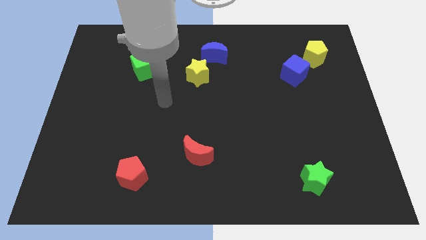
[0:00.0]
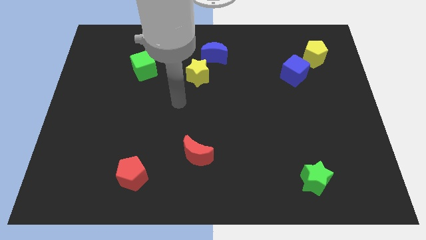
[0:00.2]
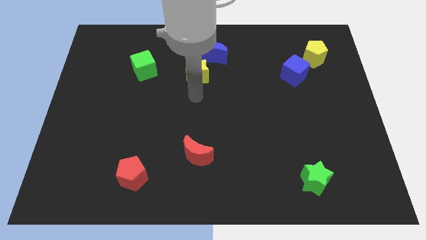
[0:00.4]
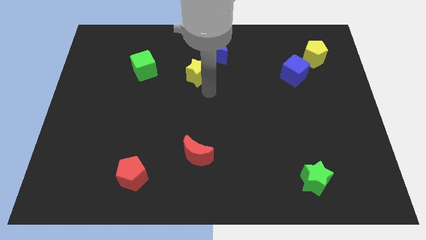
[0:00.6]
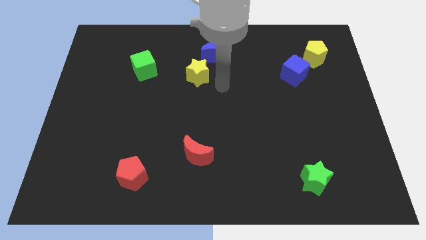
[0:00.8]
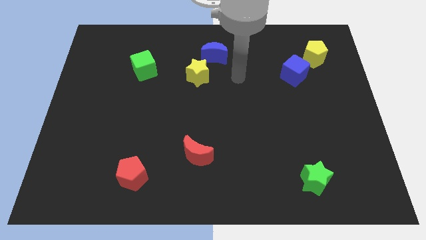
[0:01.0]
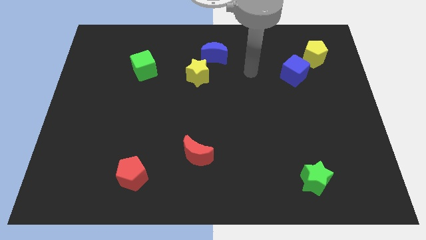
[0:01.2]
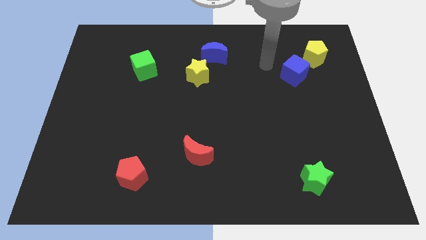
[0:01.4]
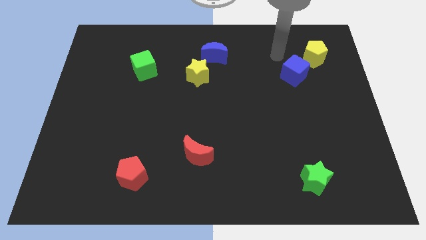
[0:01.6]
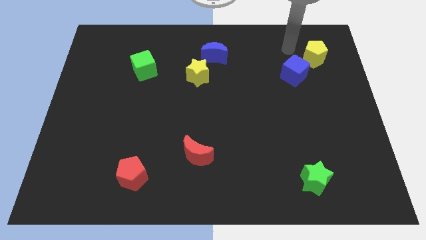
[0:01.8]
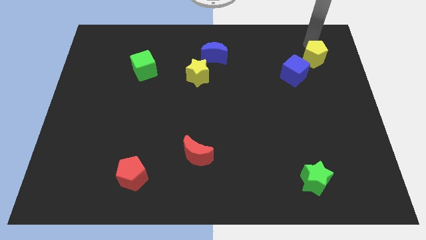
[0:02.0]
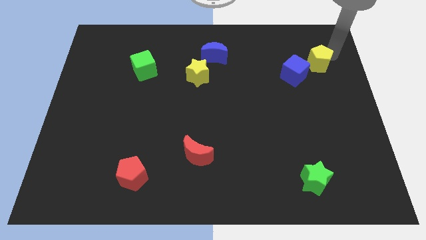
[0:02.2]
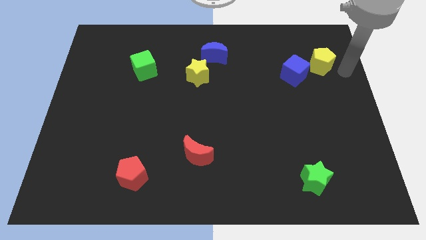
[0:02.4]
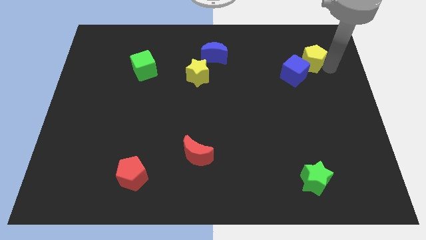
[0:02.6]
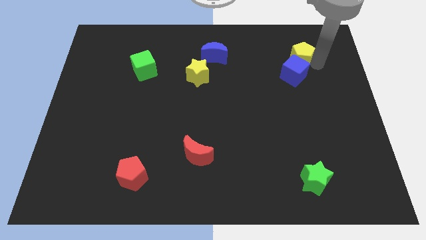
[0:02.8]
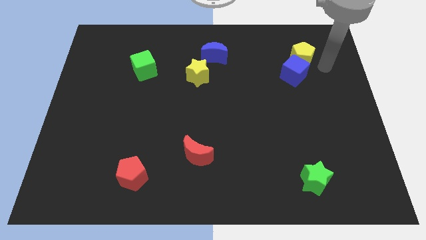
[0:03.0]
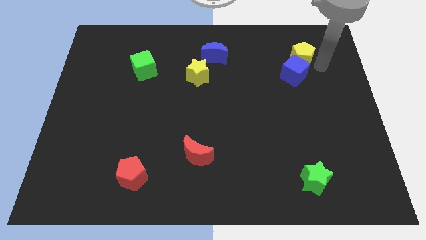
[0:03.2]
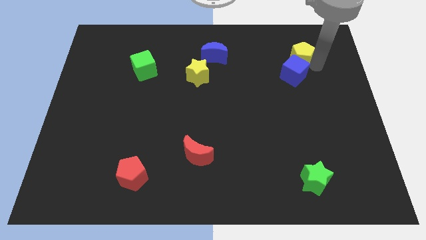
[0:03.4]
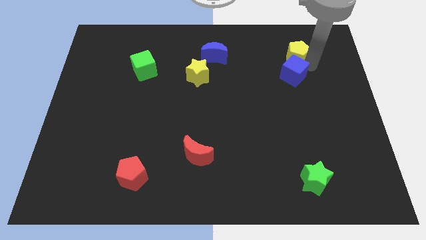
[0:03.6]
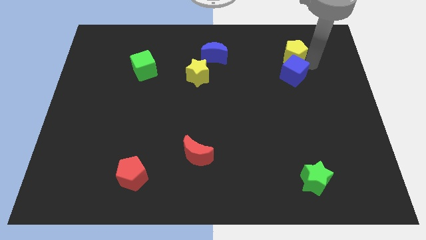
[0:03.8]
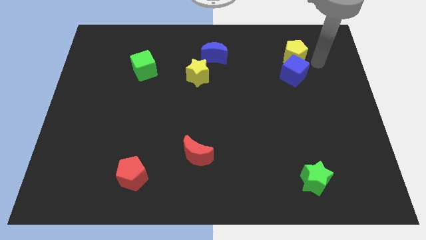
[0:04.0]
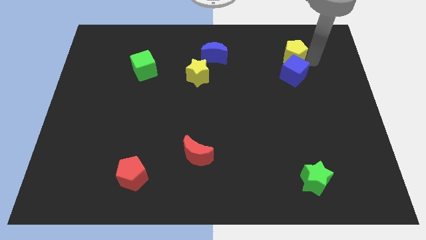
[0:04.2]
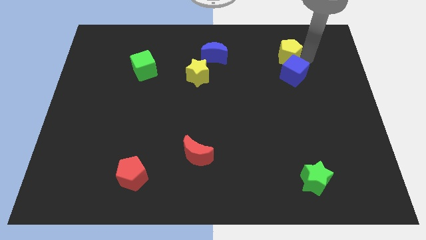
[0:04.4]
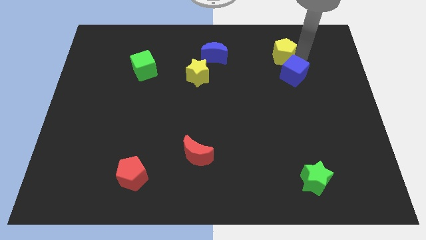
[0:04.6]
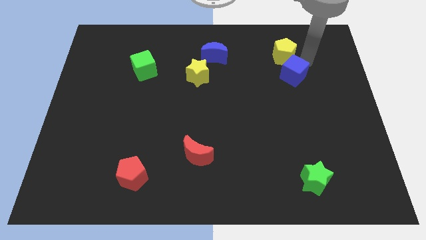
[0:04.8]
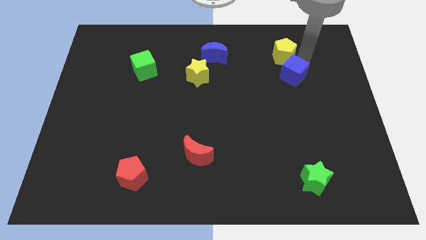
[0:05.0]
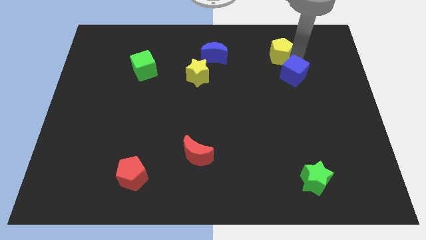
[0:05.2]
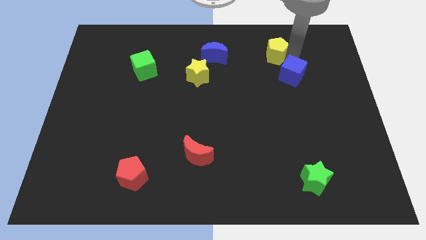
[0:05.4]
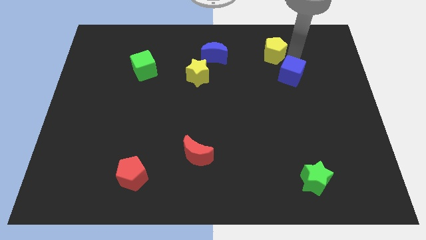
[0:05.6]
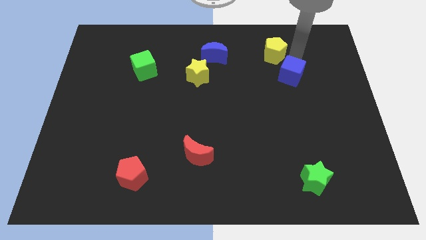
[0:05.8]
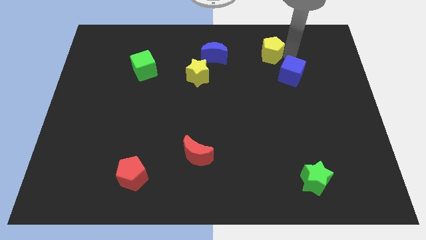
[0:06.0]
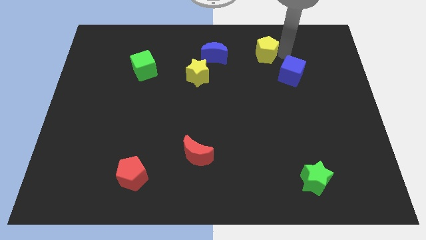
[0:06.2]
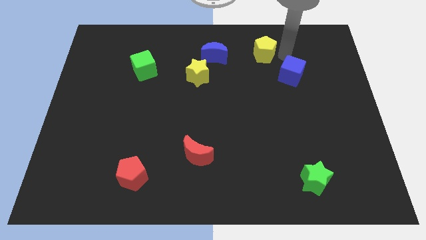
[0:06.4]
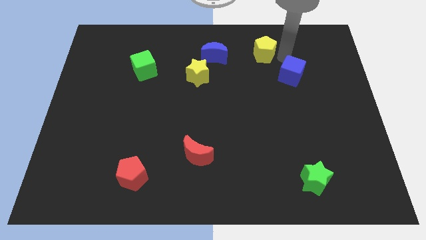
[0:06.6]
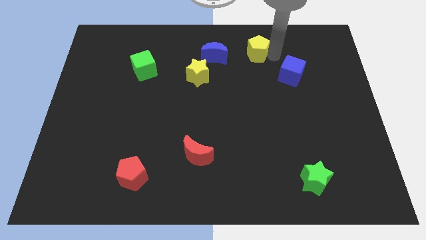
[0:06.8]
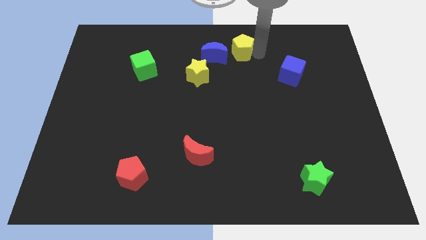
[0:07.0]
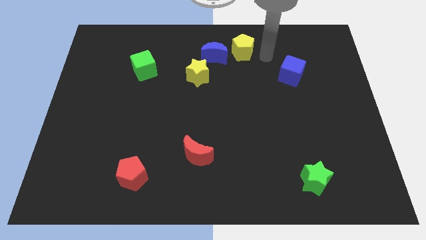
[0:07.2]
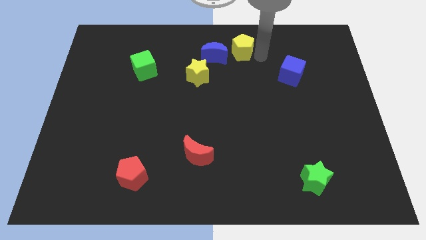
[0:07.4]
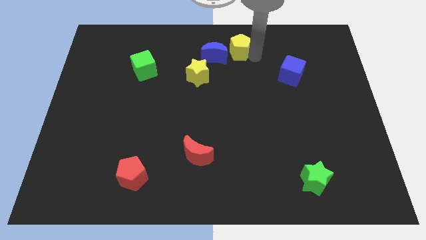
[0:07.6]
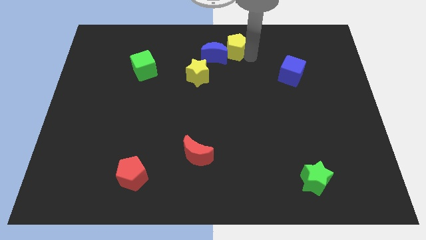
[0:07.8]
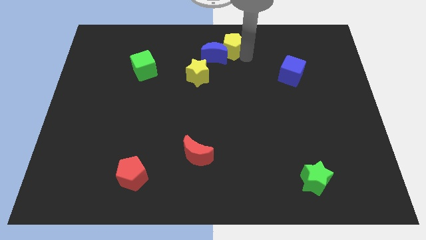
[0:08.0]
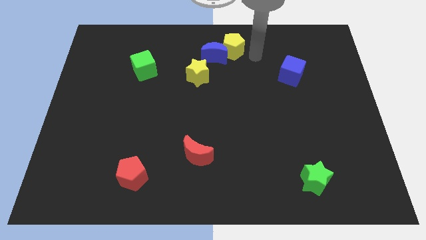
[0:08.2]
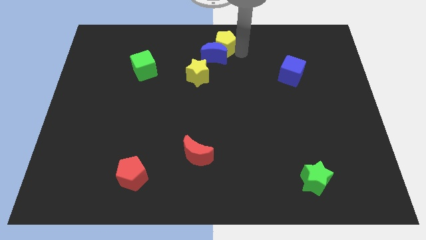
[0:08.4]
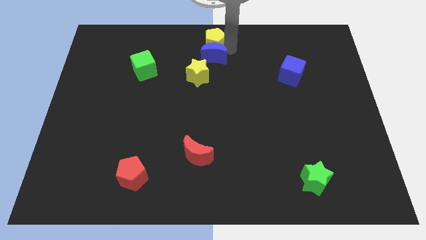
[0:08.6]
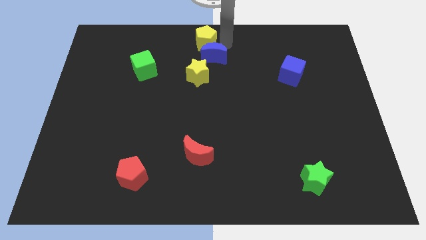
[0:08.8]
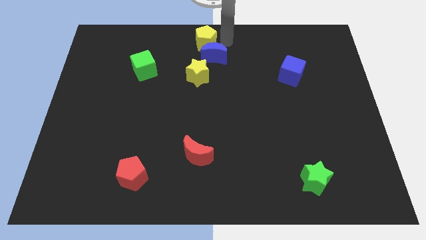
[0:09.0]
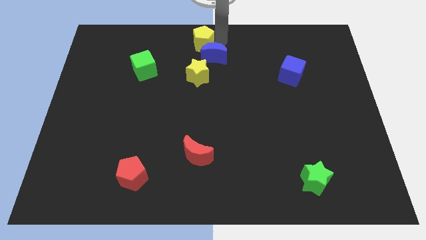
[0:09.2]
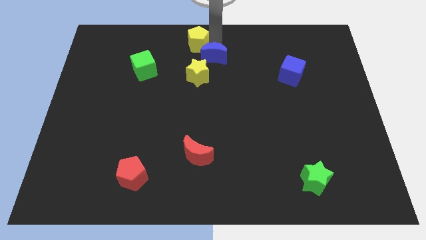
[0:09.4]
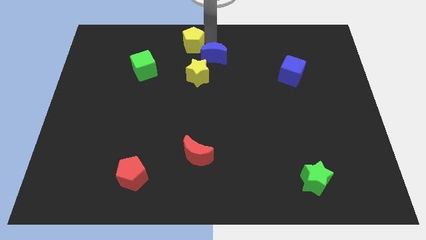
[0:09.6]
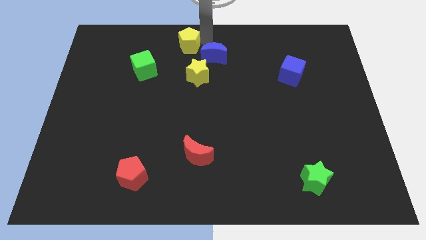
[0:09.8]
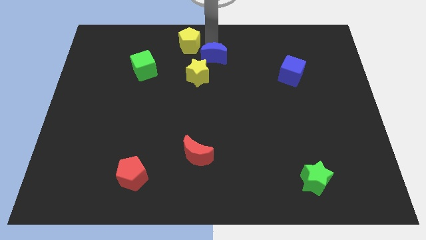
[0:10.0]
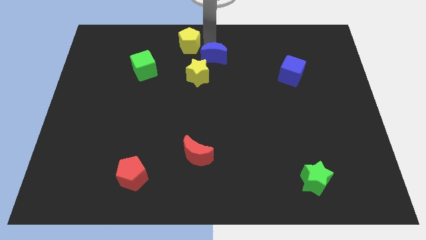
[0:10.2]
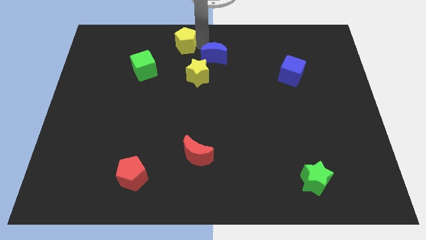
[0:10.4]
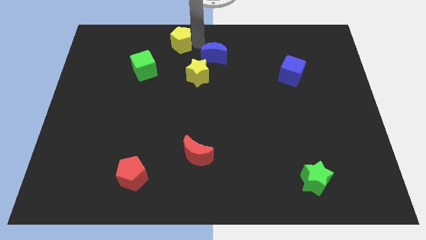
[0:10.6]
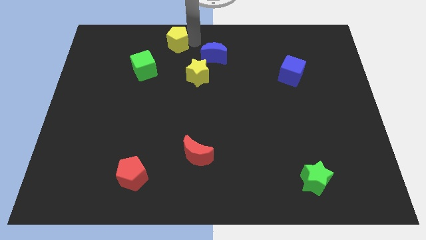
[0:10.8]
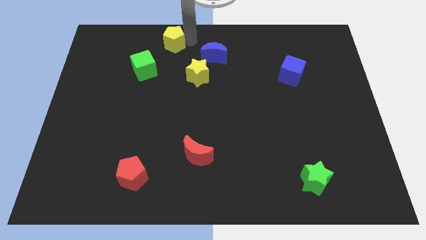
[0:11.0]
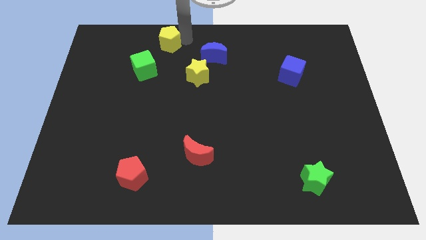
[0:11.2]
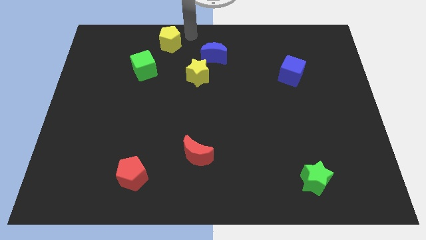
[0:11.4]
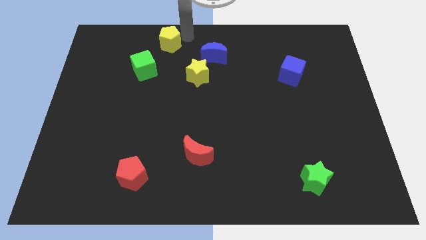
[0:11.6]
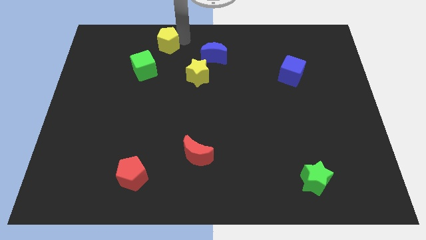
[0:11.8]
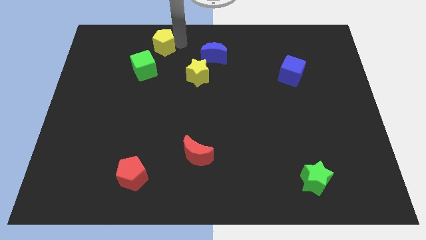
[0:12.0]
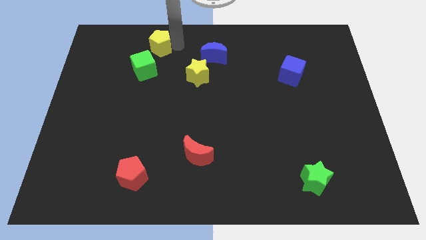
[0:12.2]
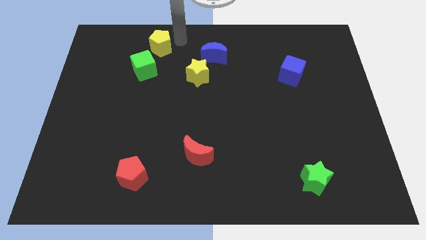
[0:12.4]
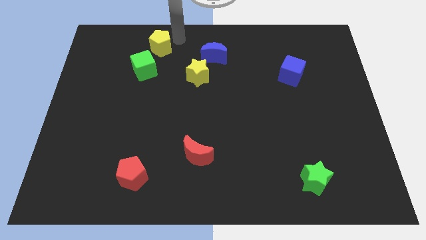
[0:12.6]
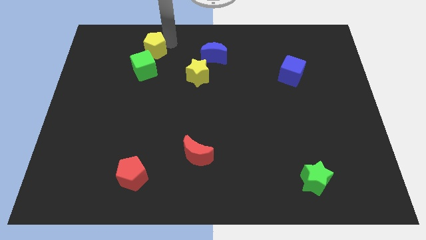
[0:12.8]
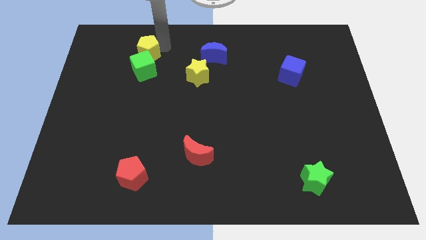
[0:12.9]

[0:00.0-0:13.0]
put the yellow pentagon diagonally up and to the left of the green cube

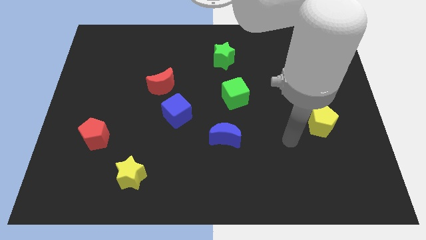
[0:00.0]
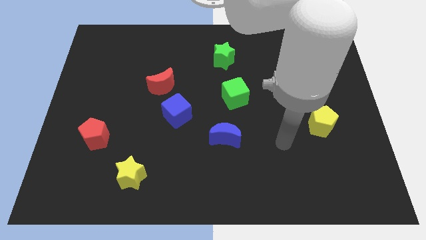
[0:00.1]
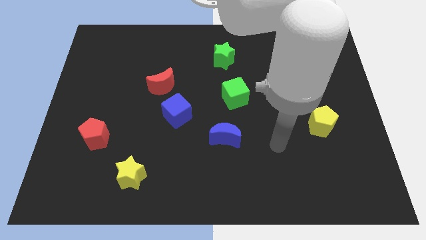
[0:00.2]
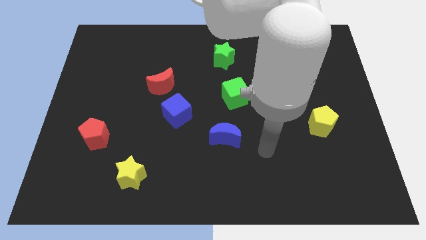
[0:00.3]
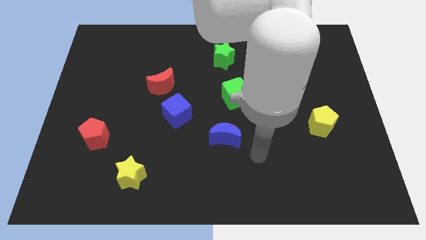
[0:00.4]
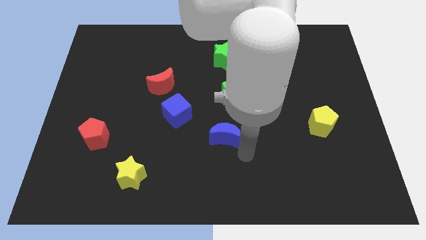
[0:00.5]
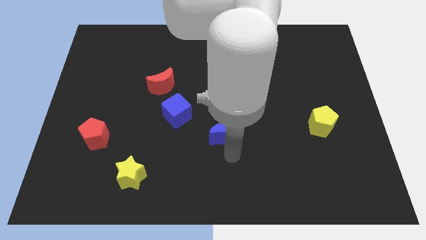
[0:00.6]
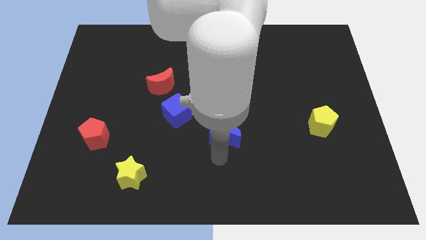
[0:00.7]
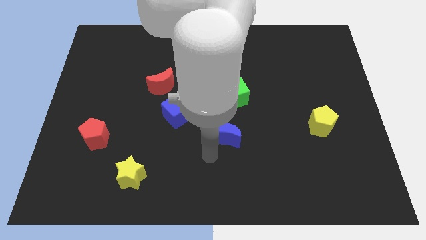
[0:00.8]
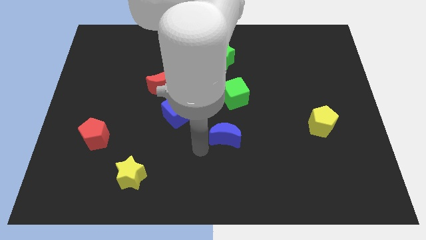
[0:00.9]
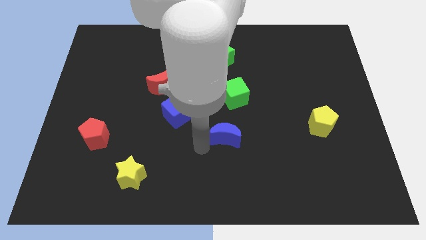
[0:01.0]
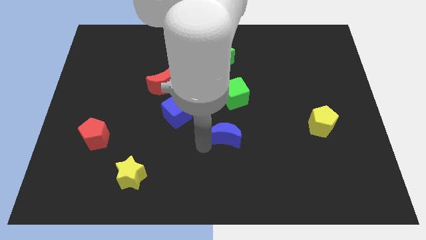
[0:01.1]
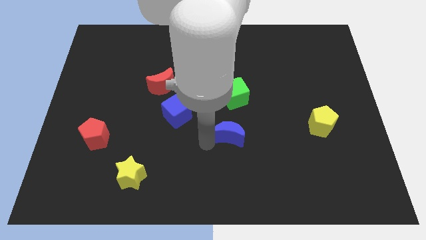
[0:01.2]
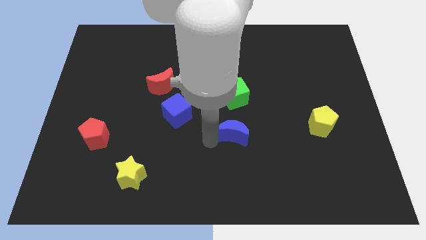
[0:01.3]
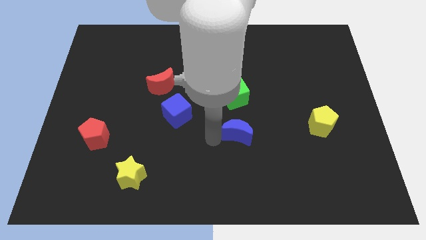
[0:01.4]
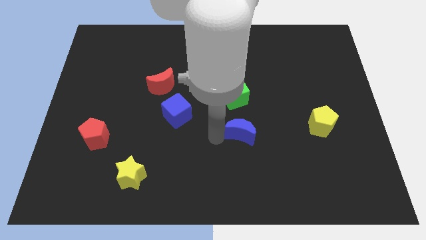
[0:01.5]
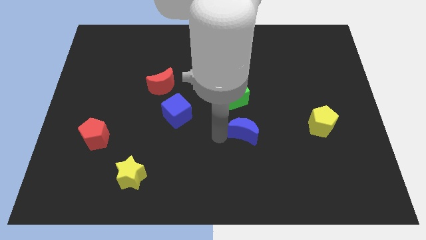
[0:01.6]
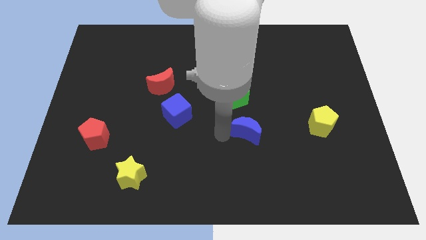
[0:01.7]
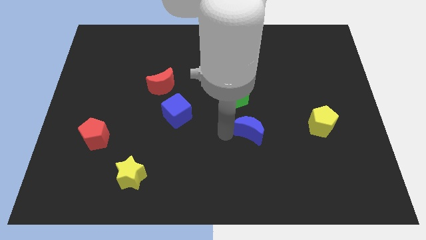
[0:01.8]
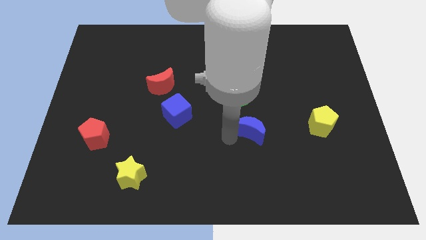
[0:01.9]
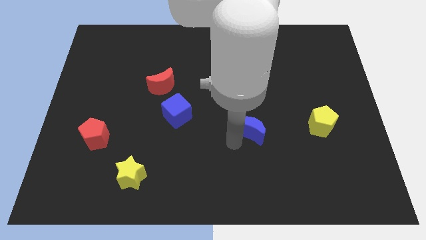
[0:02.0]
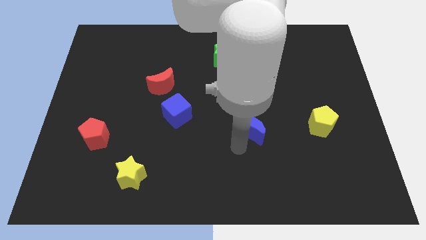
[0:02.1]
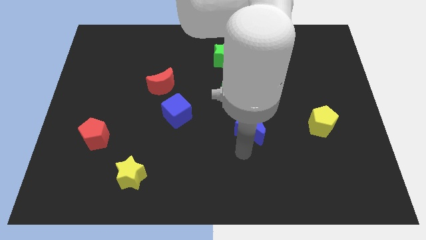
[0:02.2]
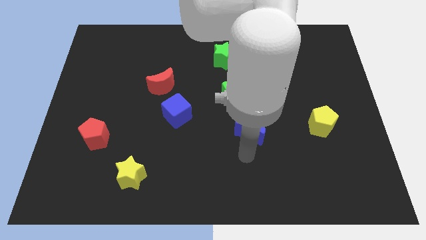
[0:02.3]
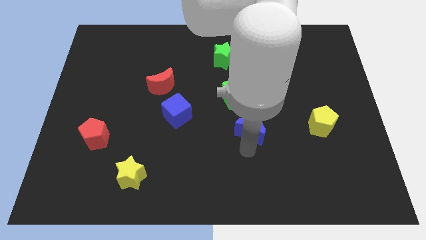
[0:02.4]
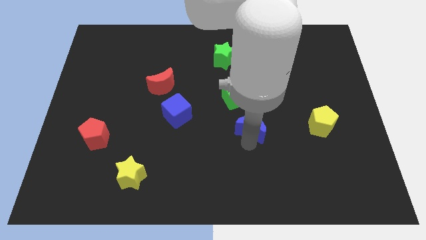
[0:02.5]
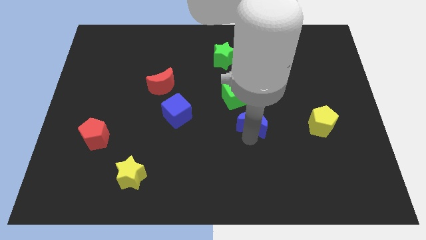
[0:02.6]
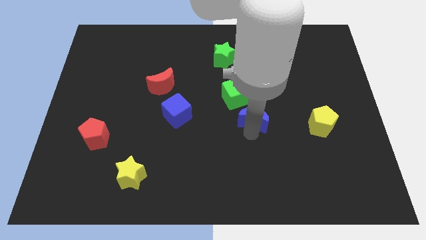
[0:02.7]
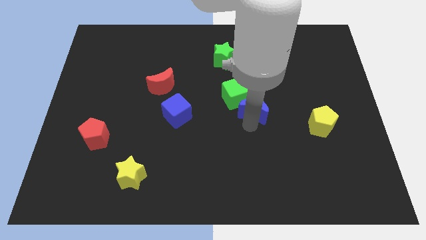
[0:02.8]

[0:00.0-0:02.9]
put the blue moon to the right of the green cube
